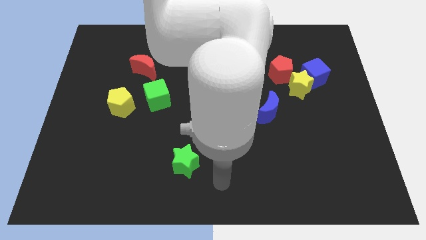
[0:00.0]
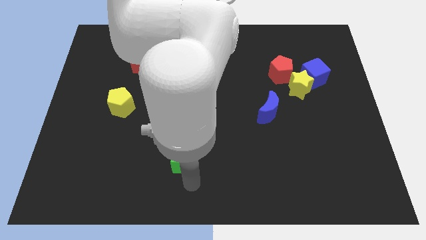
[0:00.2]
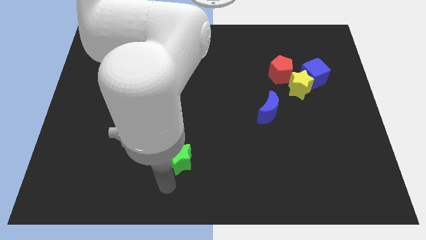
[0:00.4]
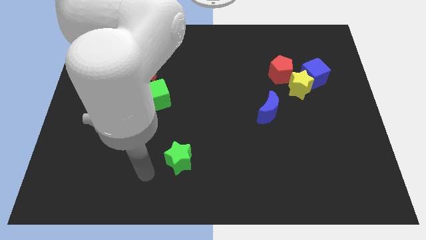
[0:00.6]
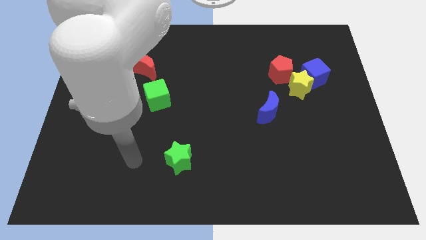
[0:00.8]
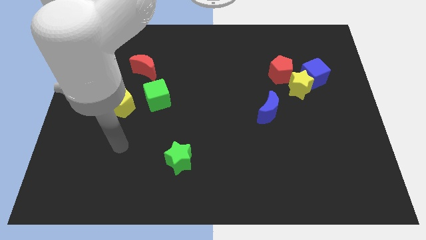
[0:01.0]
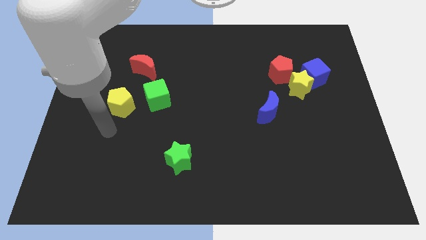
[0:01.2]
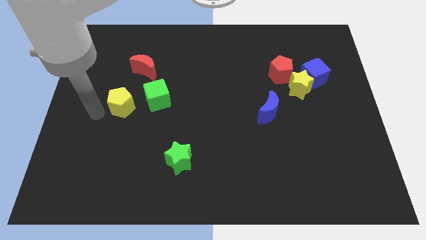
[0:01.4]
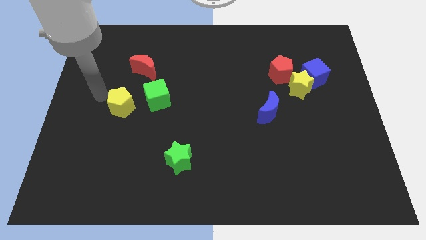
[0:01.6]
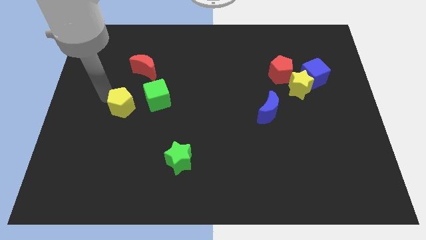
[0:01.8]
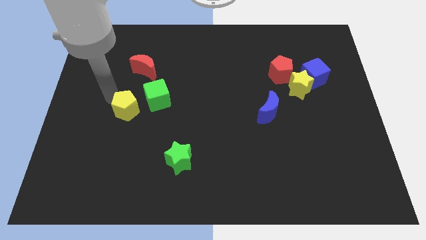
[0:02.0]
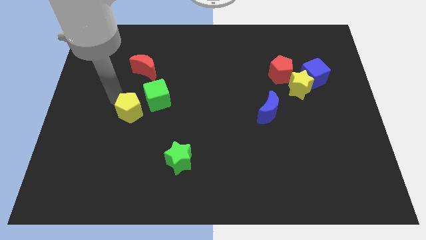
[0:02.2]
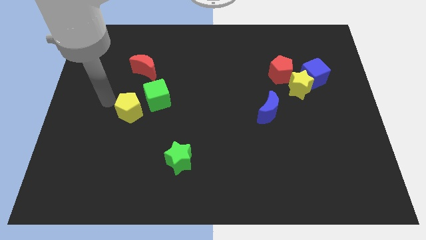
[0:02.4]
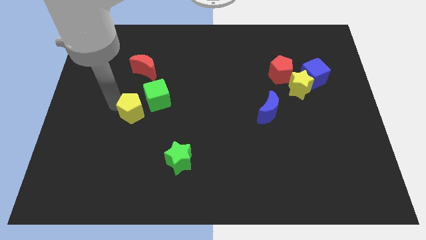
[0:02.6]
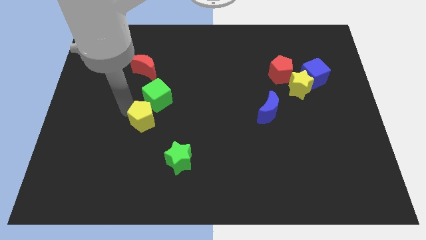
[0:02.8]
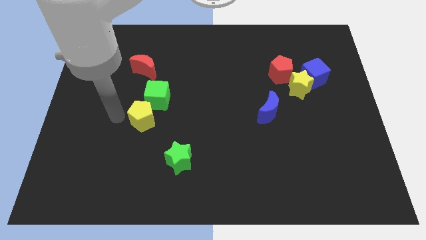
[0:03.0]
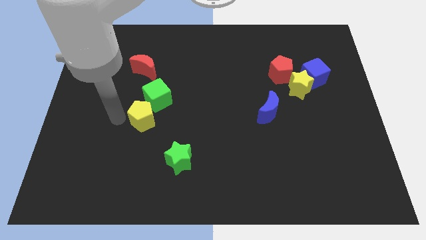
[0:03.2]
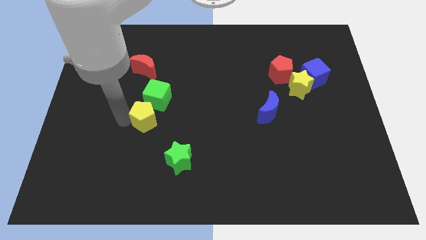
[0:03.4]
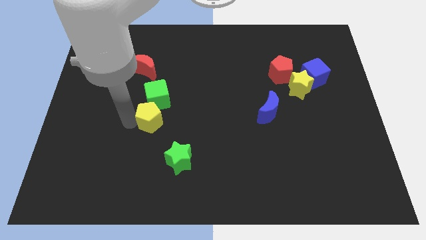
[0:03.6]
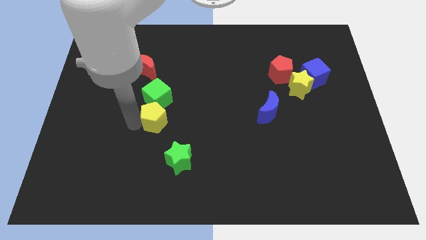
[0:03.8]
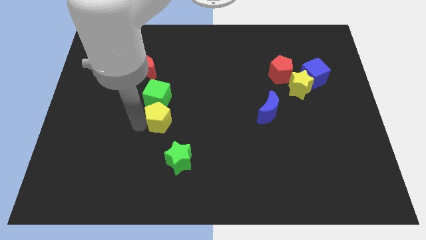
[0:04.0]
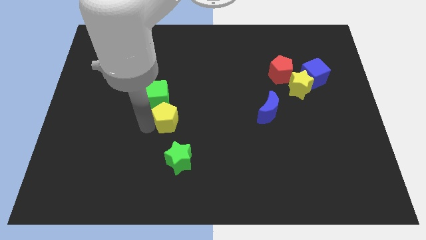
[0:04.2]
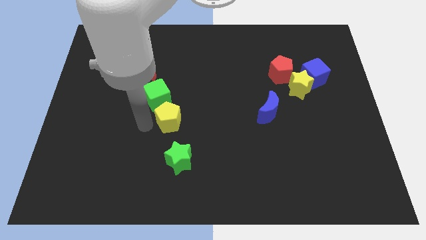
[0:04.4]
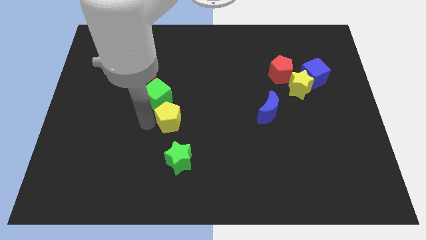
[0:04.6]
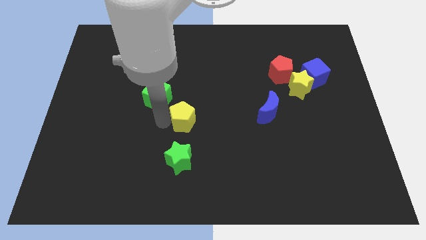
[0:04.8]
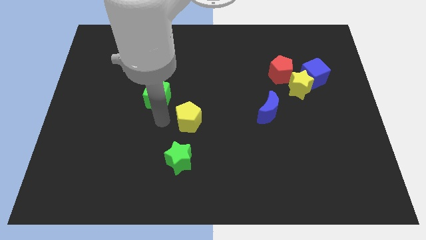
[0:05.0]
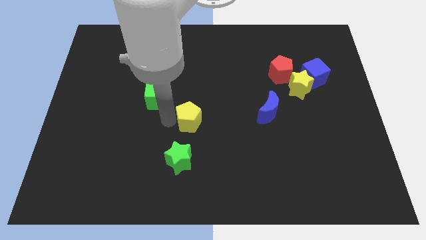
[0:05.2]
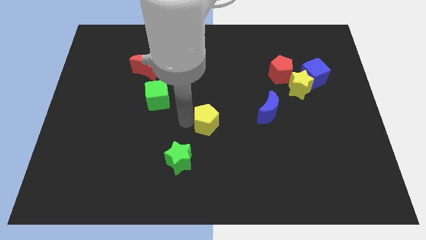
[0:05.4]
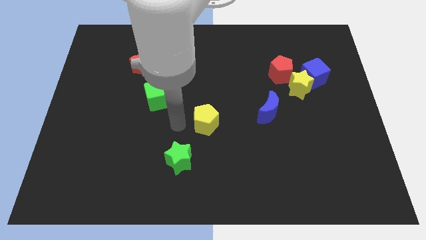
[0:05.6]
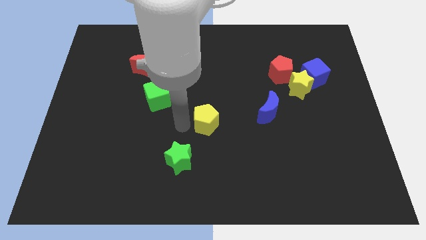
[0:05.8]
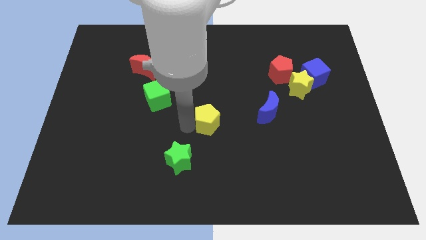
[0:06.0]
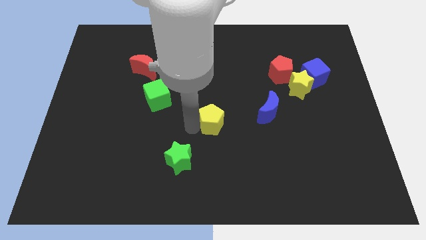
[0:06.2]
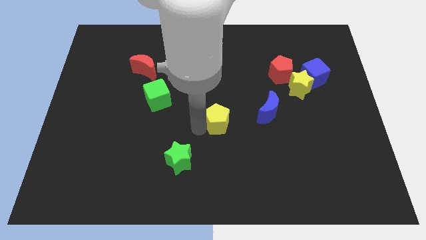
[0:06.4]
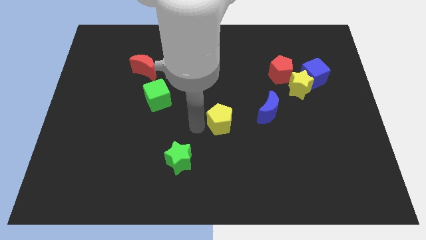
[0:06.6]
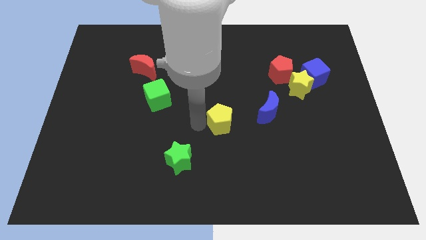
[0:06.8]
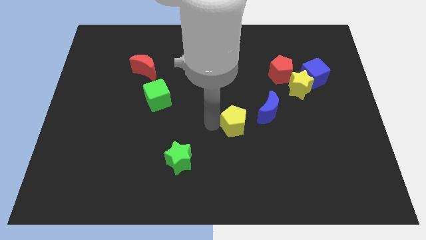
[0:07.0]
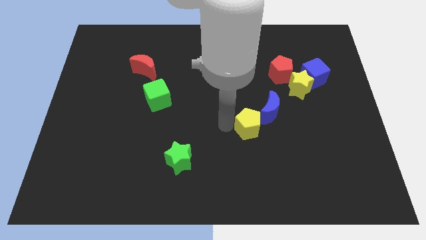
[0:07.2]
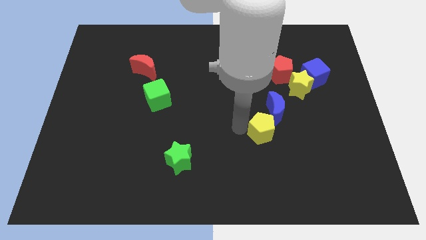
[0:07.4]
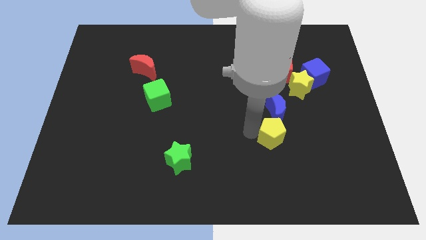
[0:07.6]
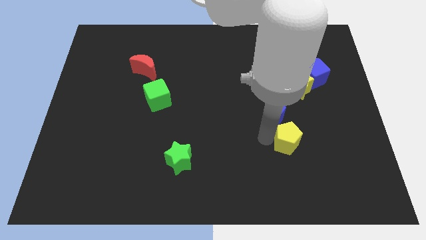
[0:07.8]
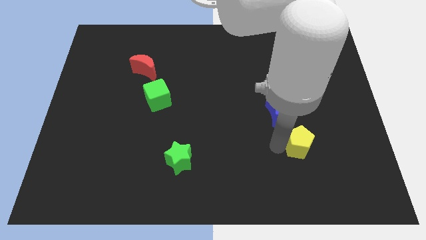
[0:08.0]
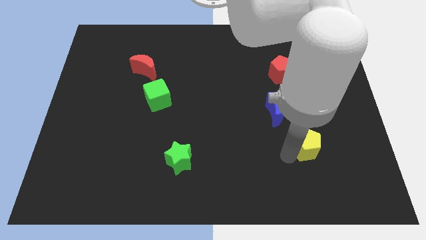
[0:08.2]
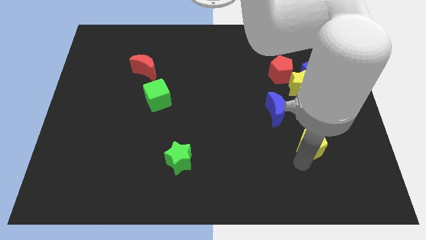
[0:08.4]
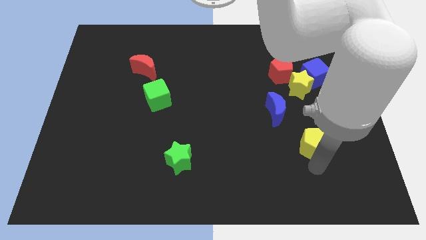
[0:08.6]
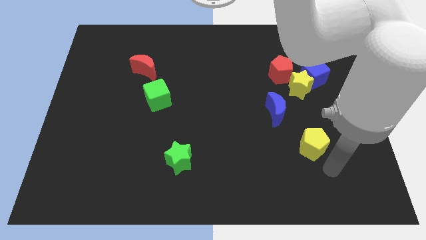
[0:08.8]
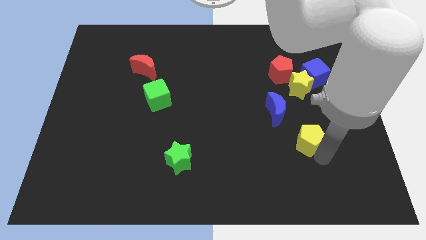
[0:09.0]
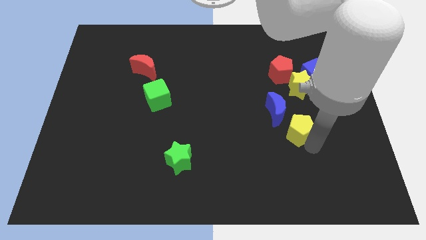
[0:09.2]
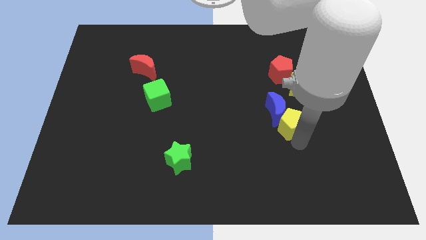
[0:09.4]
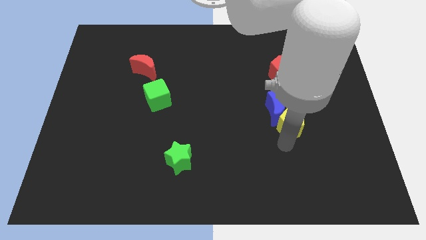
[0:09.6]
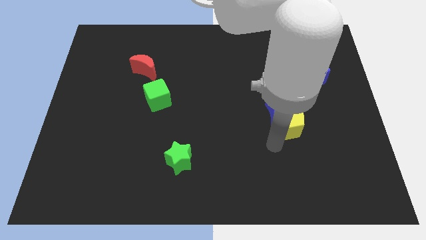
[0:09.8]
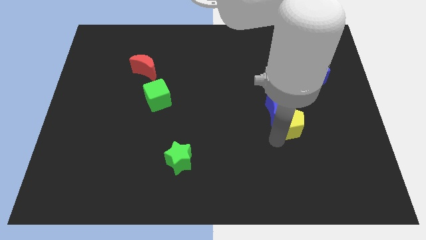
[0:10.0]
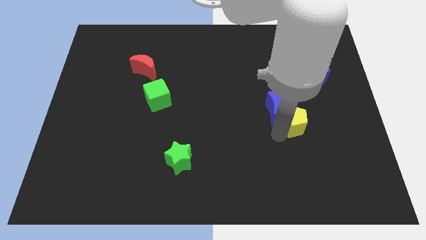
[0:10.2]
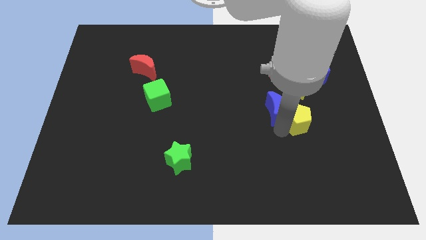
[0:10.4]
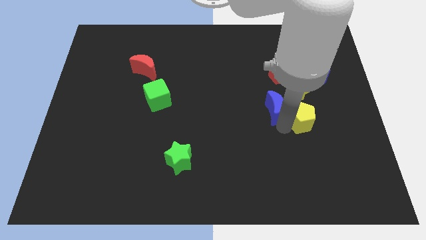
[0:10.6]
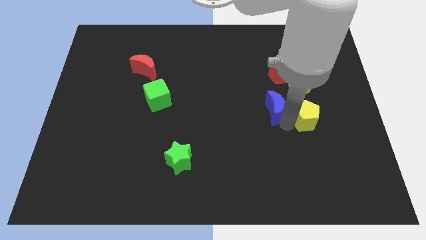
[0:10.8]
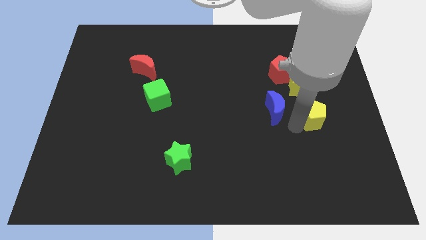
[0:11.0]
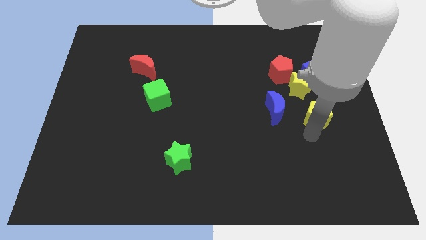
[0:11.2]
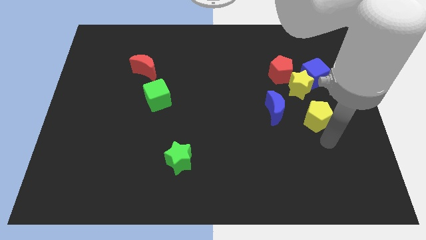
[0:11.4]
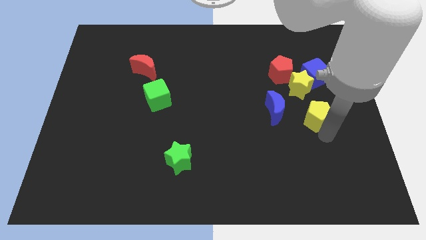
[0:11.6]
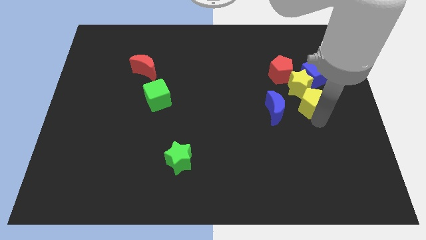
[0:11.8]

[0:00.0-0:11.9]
put the yellow pentagon close to the yellow star

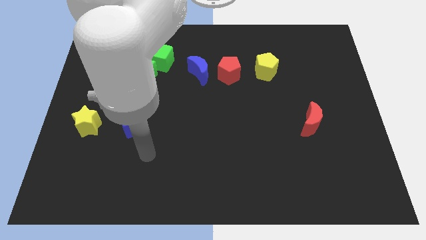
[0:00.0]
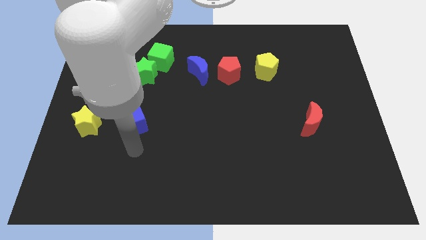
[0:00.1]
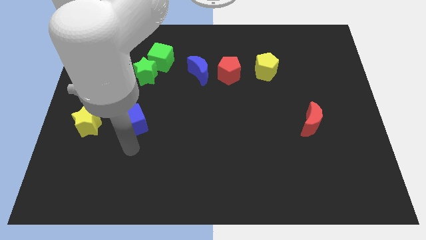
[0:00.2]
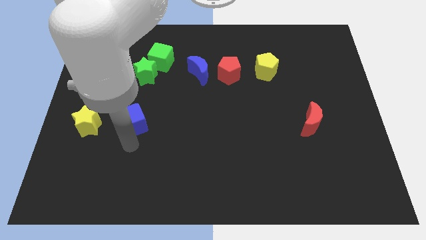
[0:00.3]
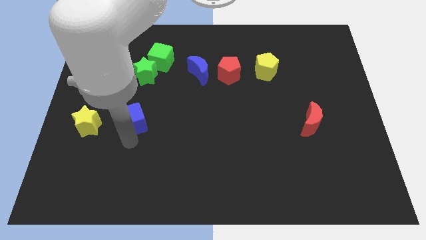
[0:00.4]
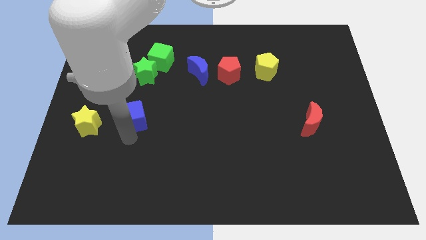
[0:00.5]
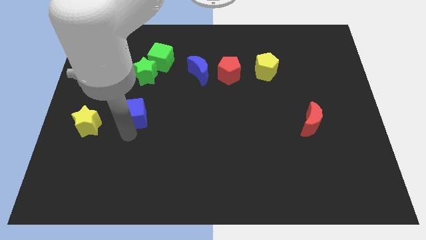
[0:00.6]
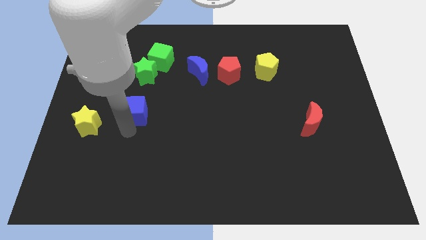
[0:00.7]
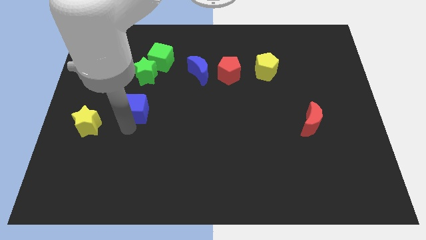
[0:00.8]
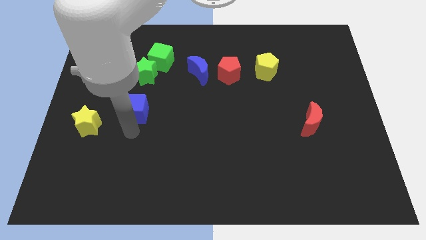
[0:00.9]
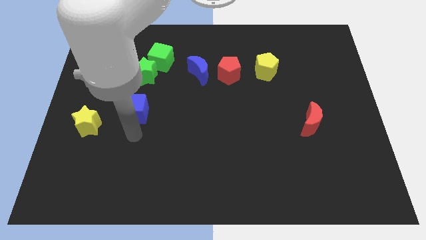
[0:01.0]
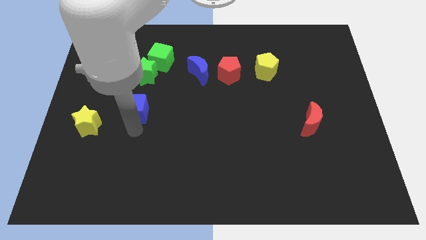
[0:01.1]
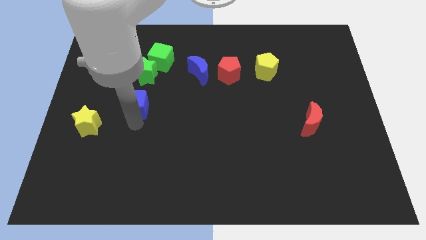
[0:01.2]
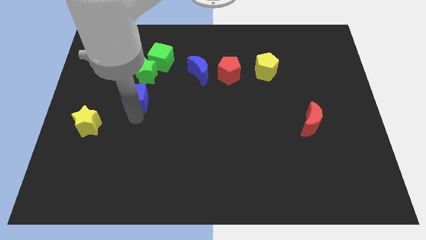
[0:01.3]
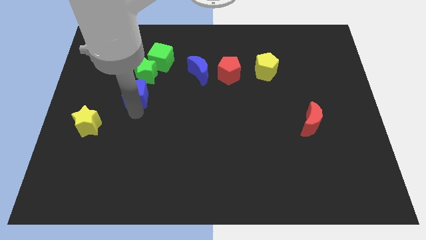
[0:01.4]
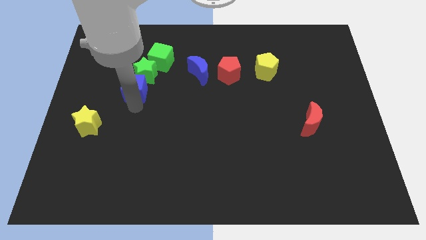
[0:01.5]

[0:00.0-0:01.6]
move the blue cube to the green star
